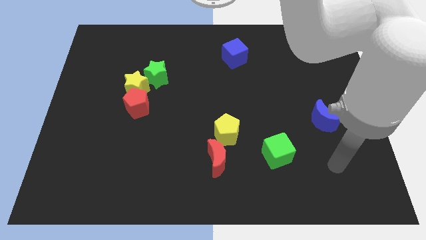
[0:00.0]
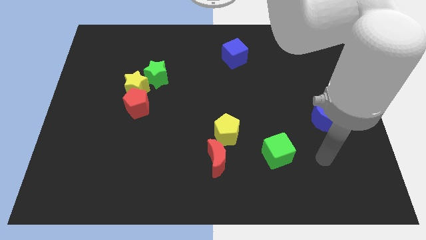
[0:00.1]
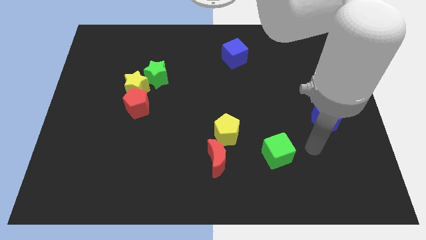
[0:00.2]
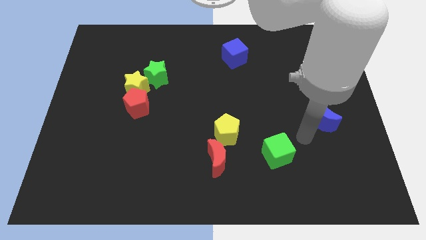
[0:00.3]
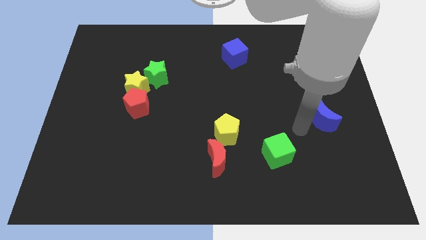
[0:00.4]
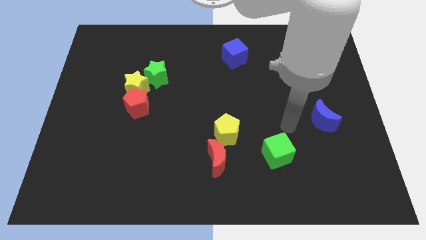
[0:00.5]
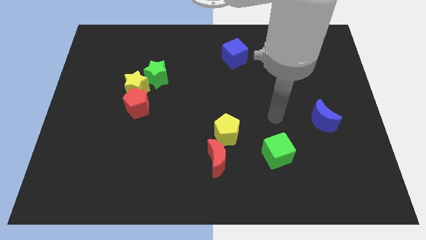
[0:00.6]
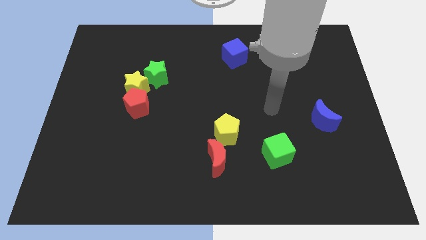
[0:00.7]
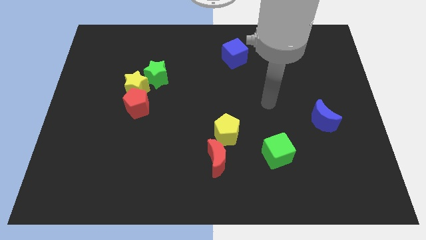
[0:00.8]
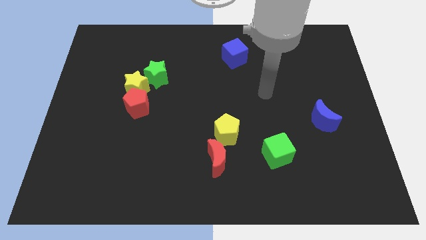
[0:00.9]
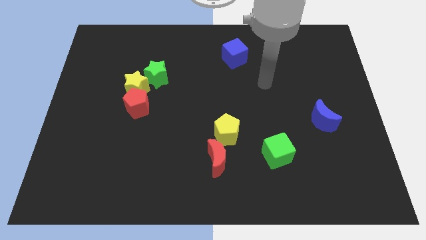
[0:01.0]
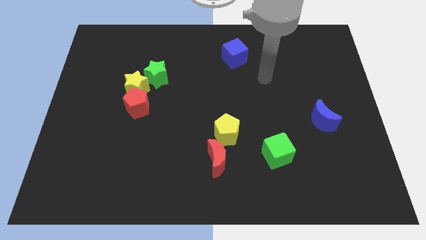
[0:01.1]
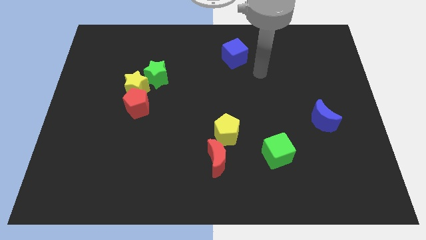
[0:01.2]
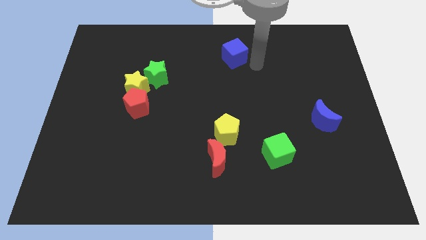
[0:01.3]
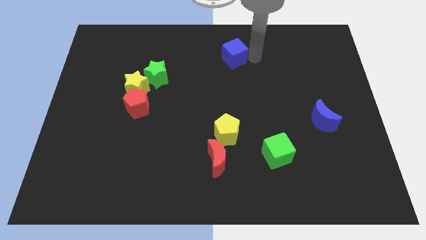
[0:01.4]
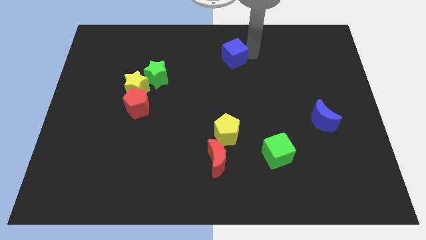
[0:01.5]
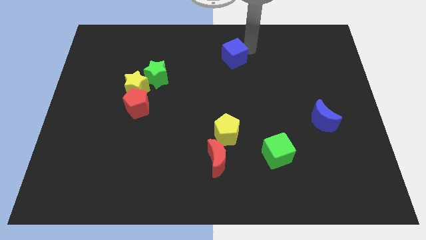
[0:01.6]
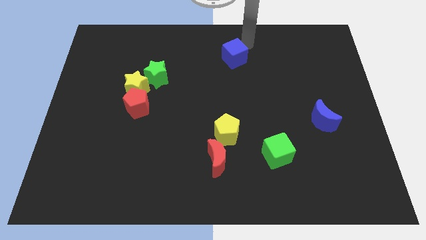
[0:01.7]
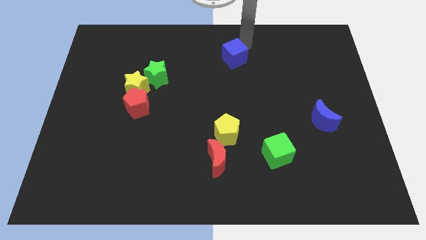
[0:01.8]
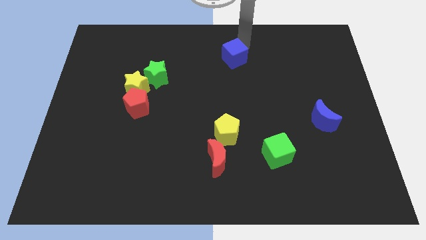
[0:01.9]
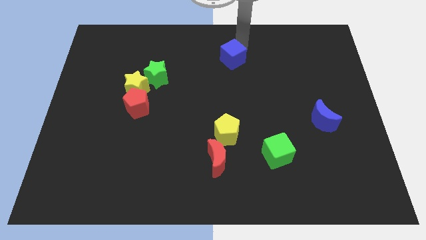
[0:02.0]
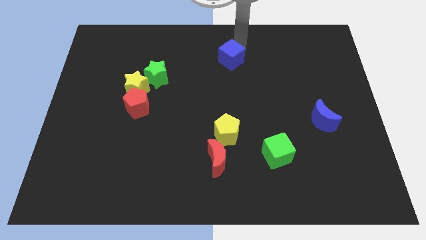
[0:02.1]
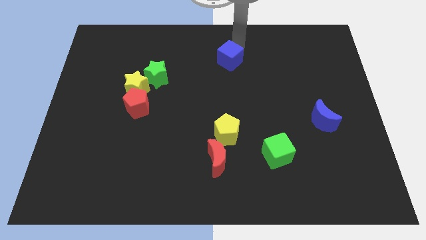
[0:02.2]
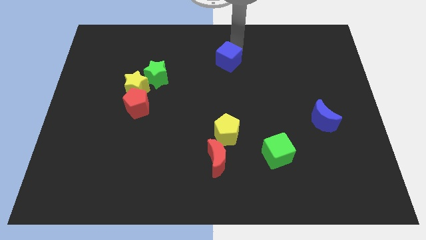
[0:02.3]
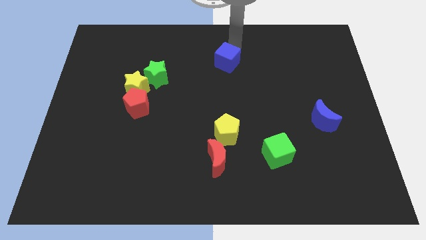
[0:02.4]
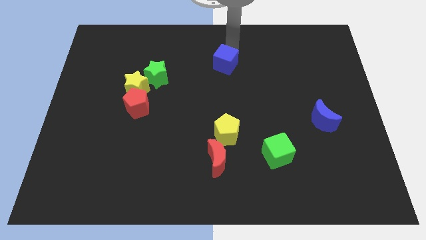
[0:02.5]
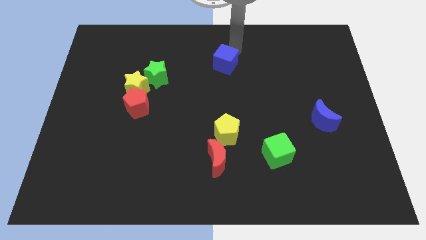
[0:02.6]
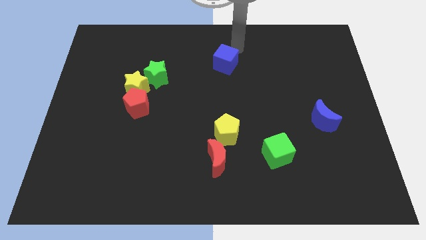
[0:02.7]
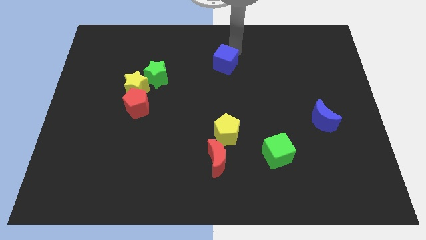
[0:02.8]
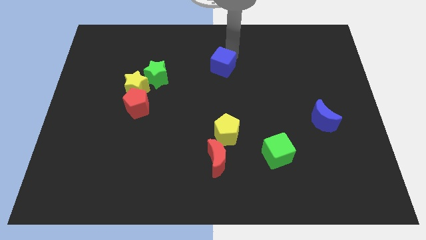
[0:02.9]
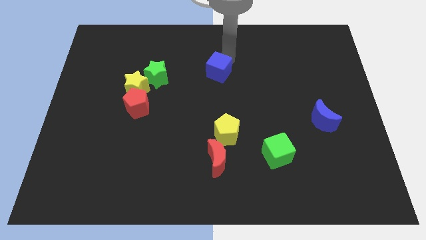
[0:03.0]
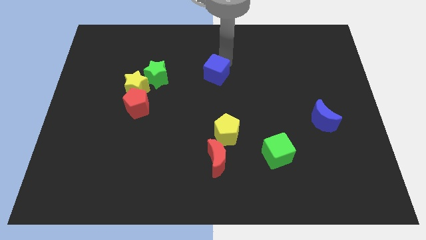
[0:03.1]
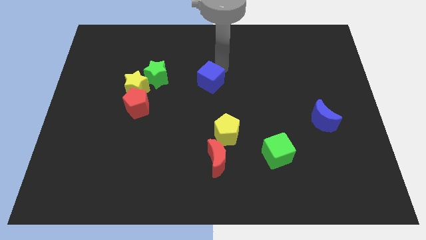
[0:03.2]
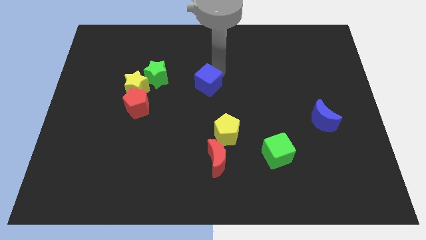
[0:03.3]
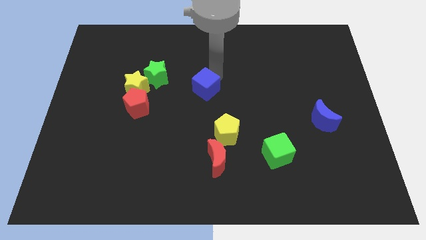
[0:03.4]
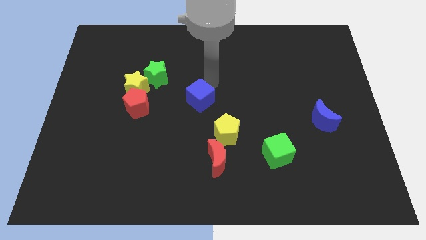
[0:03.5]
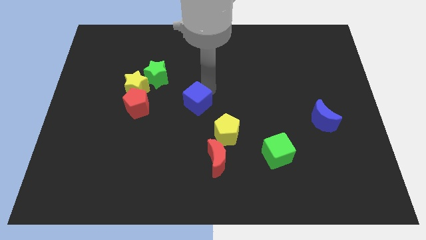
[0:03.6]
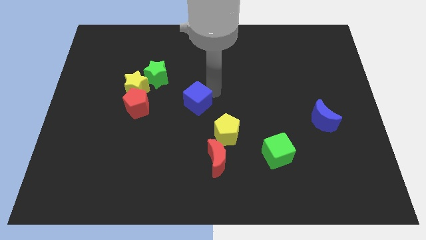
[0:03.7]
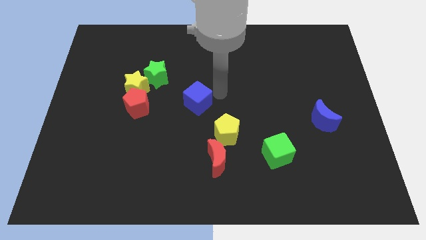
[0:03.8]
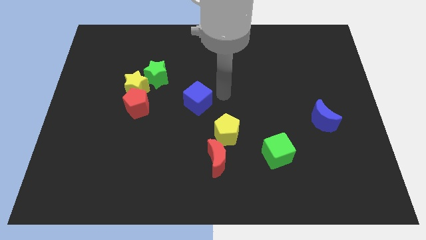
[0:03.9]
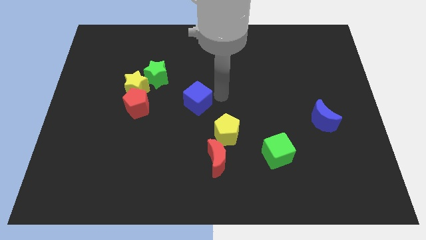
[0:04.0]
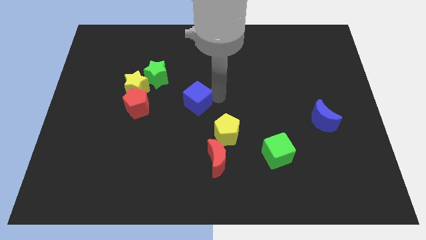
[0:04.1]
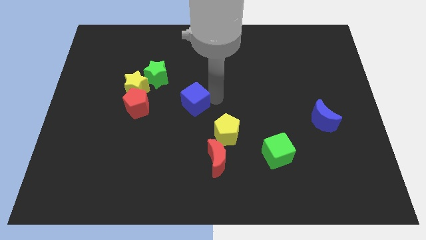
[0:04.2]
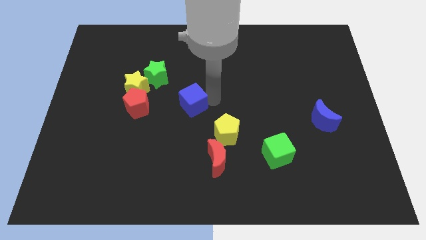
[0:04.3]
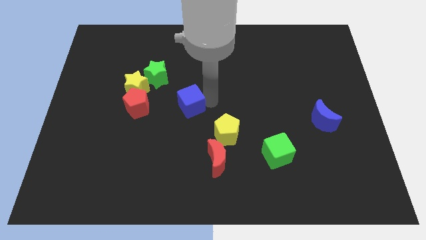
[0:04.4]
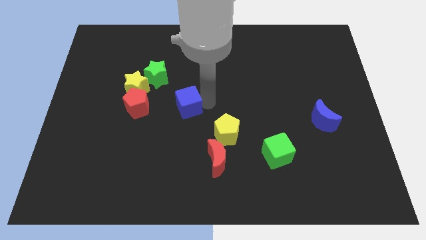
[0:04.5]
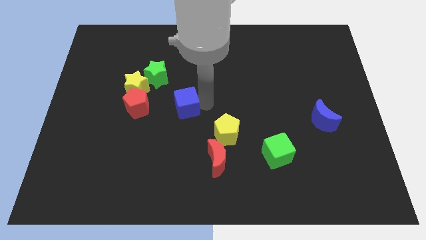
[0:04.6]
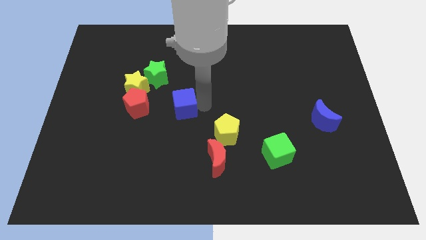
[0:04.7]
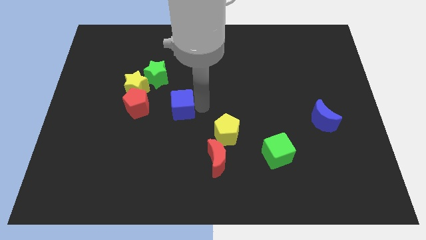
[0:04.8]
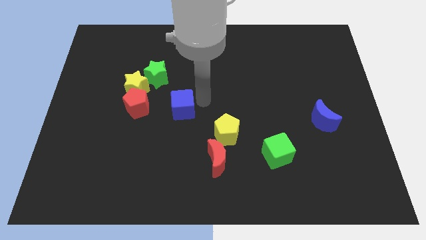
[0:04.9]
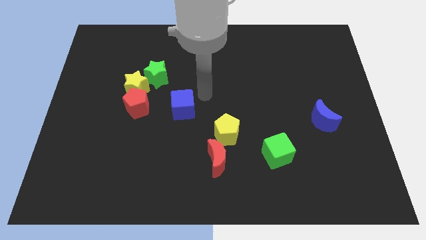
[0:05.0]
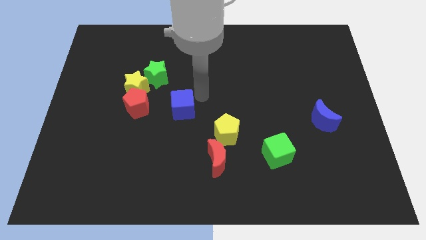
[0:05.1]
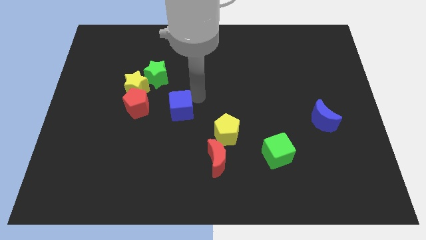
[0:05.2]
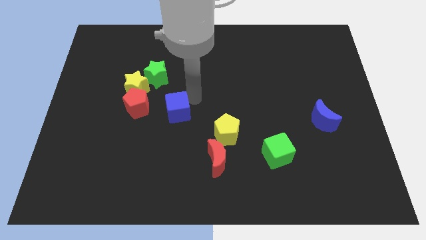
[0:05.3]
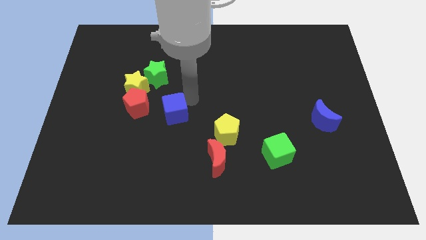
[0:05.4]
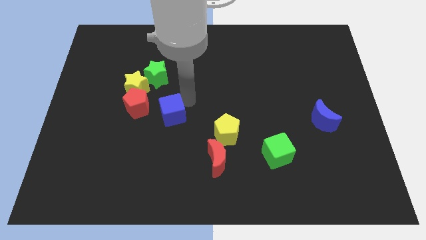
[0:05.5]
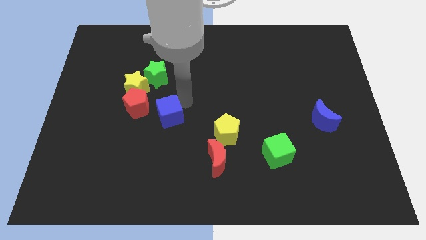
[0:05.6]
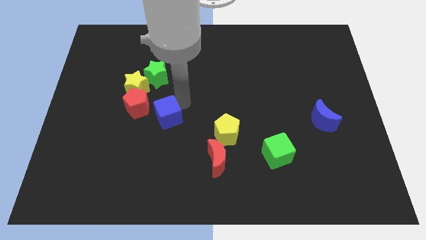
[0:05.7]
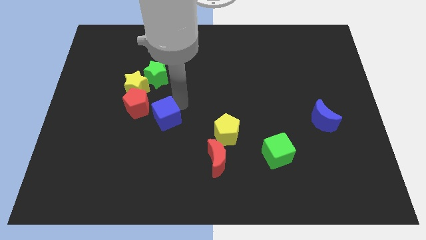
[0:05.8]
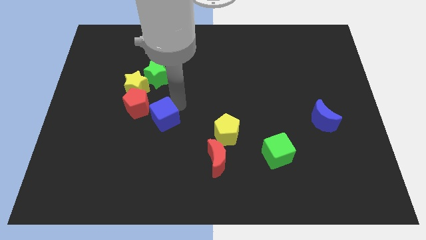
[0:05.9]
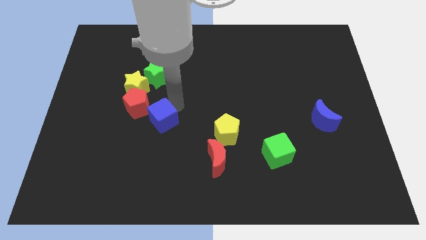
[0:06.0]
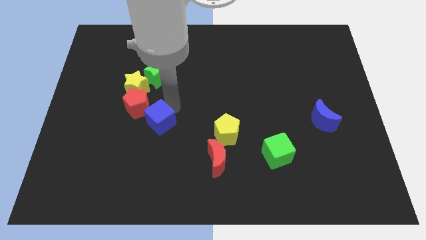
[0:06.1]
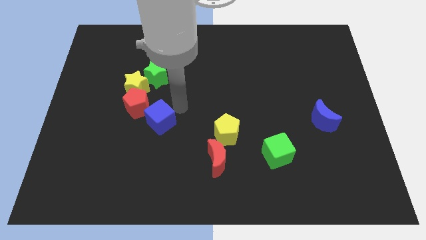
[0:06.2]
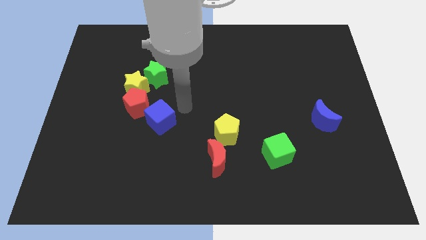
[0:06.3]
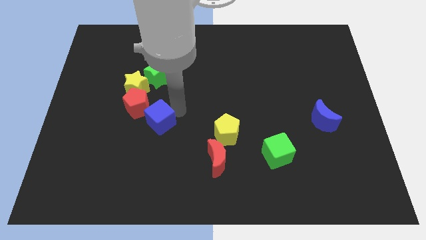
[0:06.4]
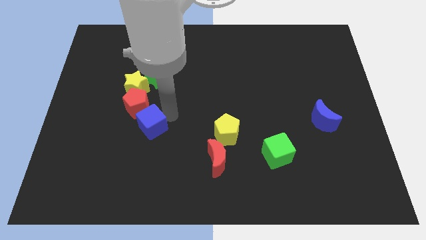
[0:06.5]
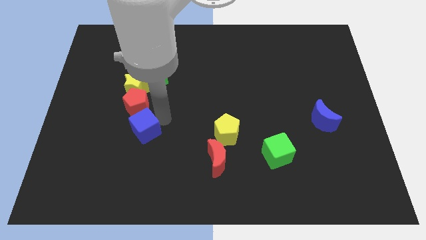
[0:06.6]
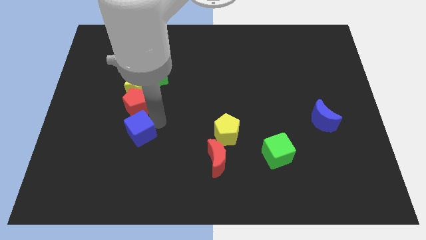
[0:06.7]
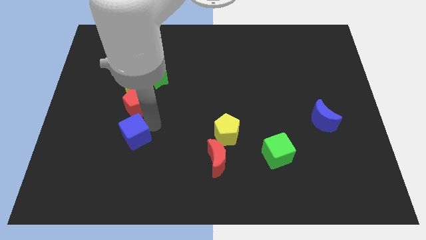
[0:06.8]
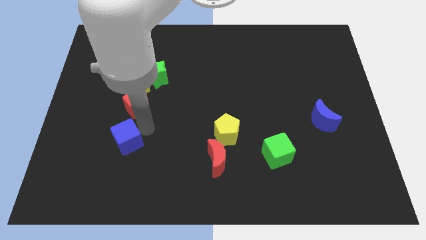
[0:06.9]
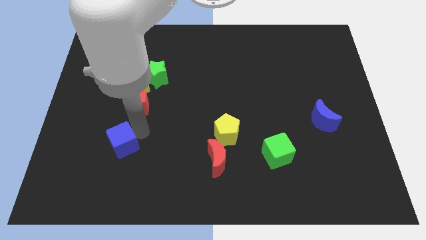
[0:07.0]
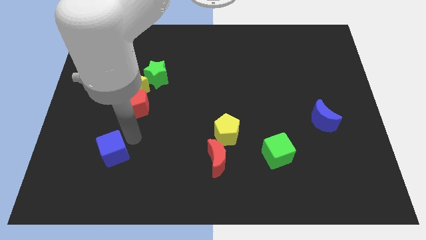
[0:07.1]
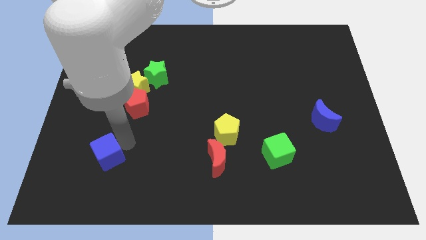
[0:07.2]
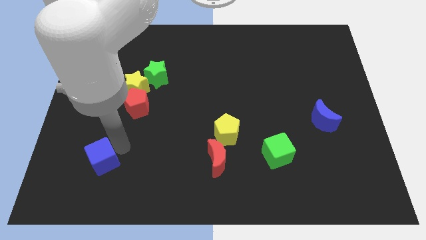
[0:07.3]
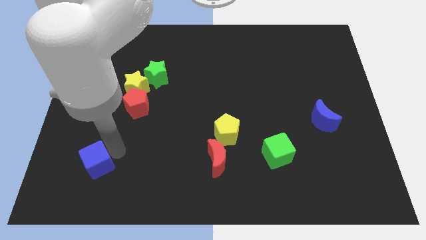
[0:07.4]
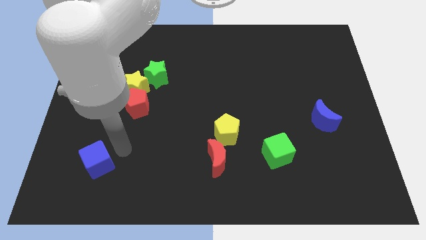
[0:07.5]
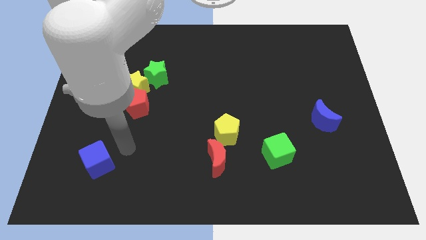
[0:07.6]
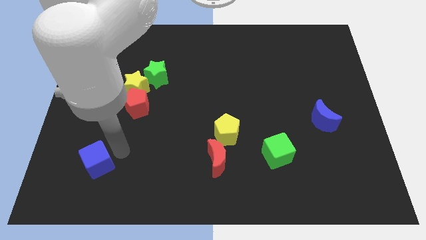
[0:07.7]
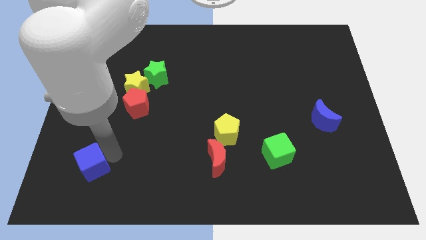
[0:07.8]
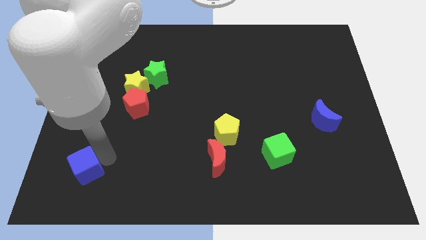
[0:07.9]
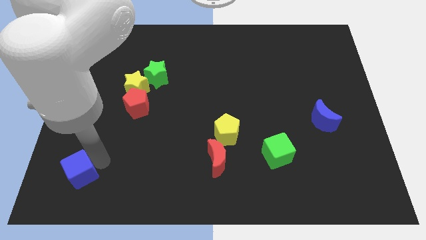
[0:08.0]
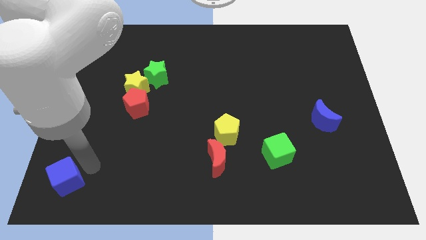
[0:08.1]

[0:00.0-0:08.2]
push the blue cube to the bottom left corner
